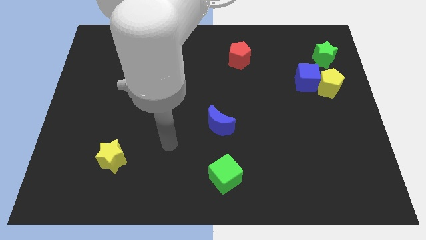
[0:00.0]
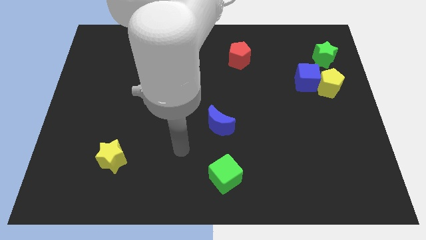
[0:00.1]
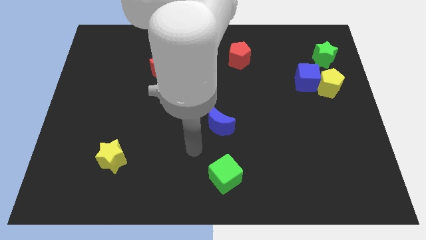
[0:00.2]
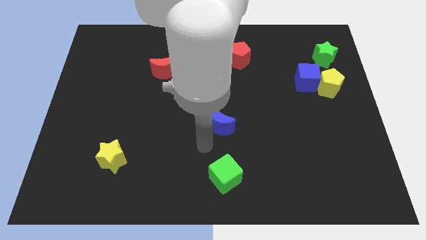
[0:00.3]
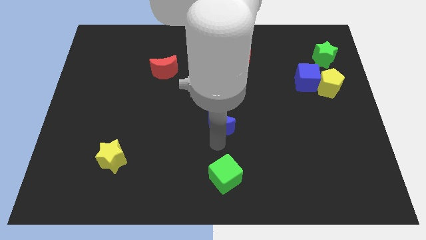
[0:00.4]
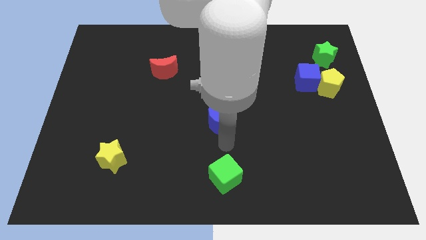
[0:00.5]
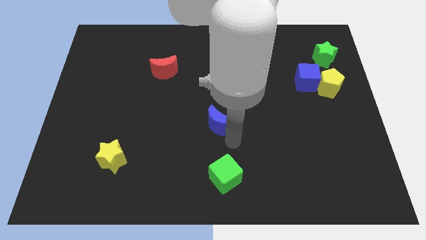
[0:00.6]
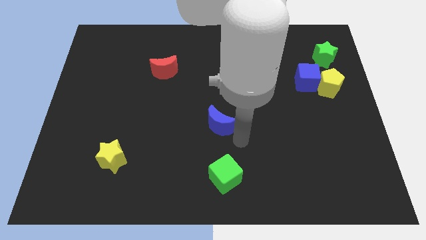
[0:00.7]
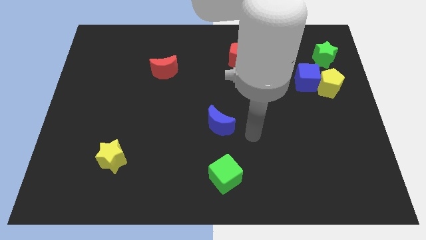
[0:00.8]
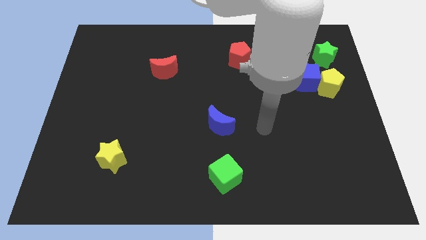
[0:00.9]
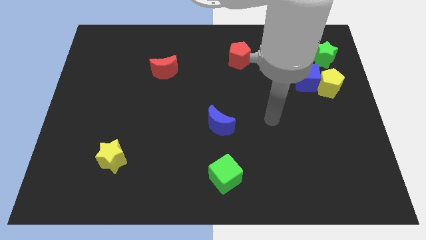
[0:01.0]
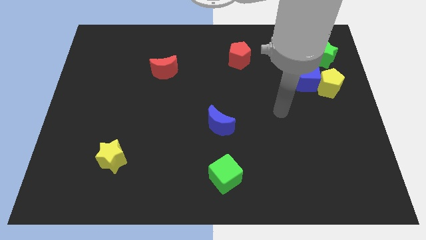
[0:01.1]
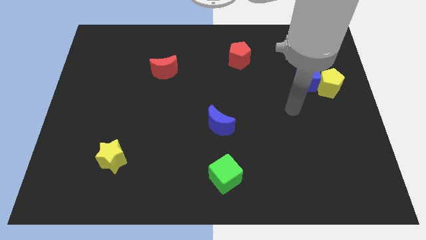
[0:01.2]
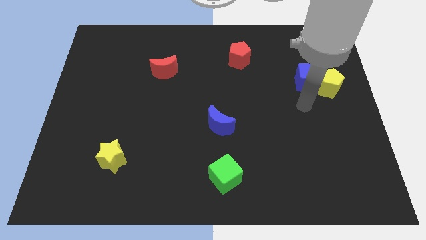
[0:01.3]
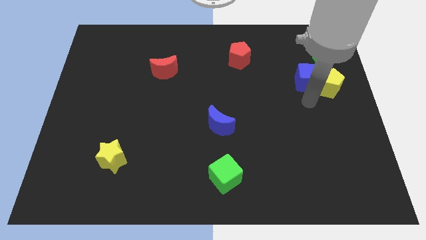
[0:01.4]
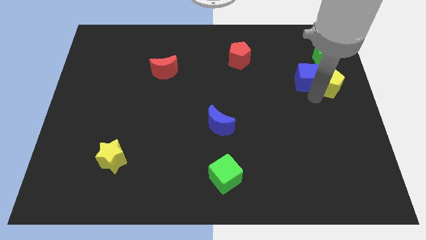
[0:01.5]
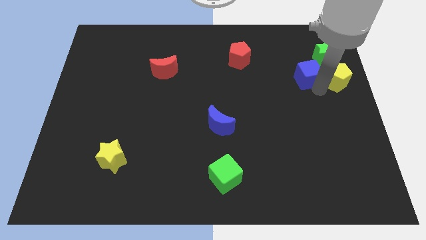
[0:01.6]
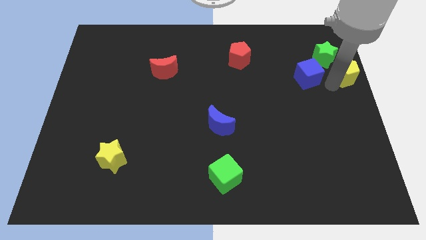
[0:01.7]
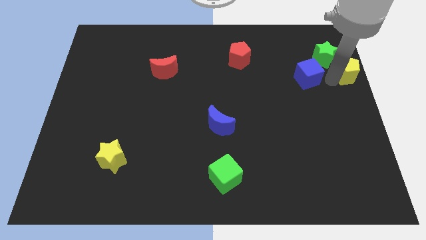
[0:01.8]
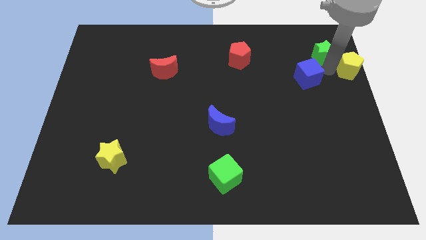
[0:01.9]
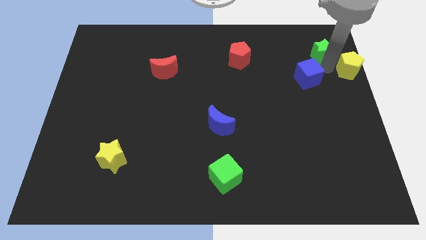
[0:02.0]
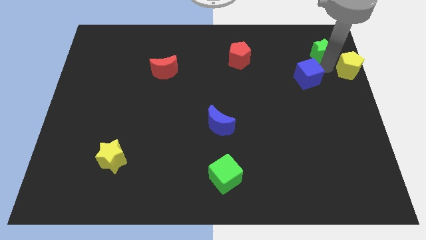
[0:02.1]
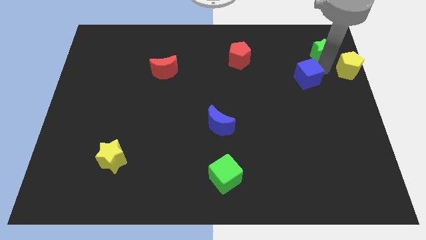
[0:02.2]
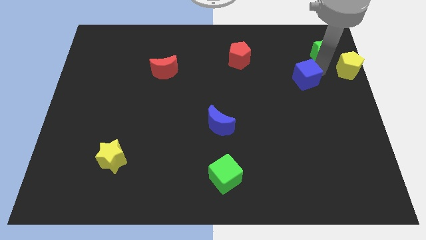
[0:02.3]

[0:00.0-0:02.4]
pull the blue cube apart from the yellow pentagon and green star

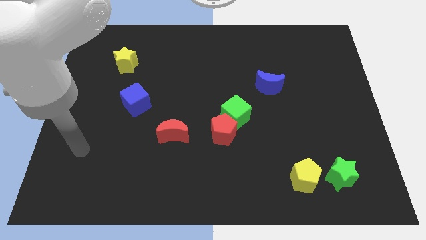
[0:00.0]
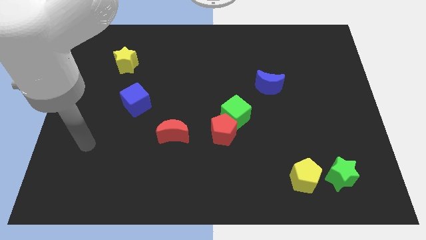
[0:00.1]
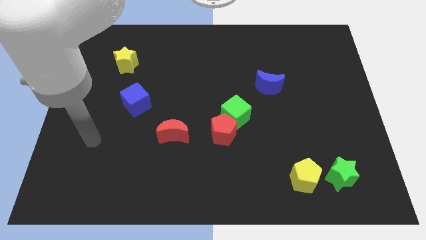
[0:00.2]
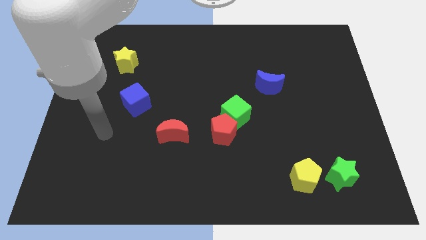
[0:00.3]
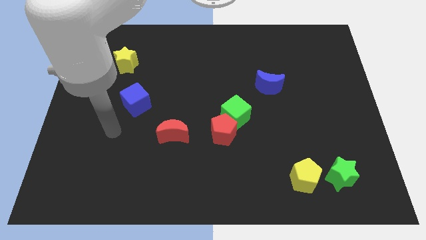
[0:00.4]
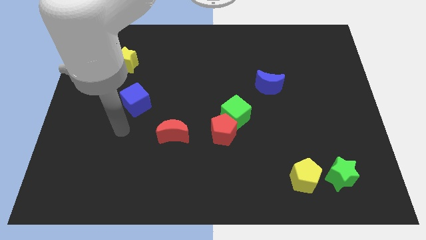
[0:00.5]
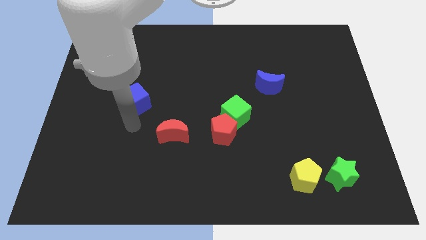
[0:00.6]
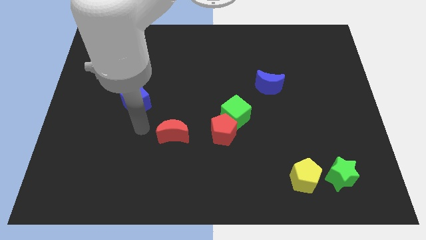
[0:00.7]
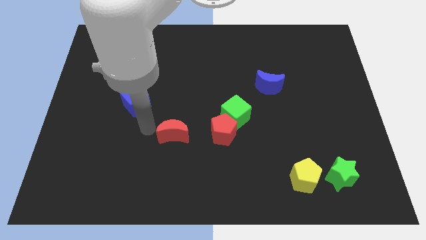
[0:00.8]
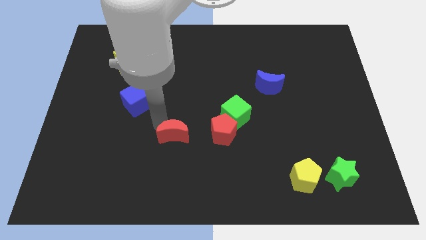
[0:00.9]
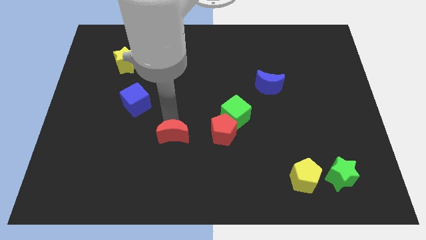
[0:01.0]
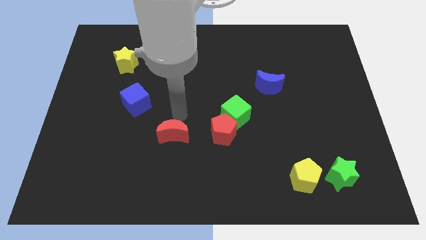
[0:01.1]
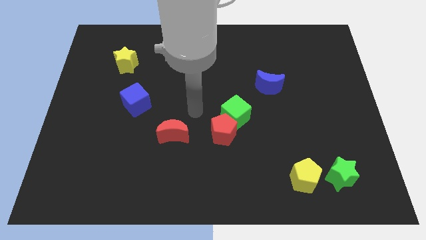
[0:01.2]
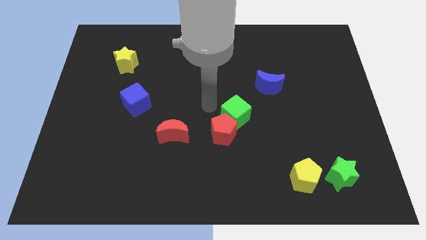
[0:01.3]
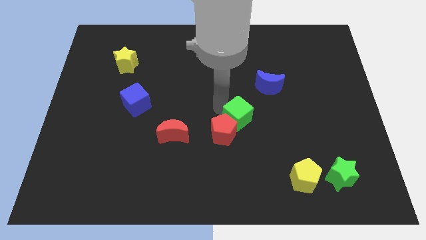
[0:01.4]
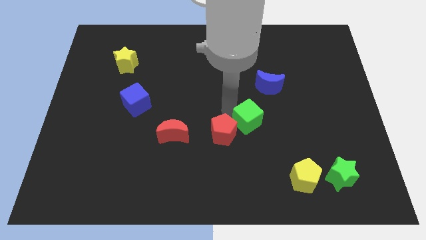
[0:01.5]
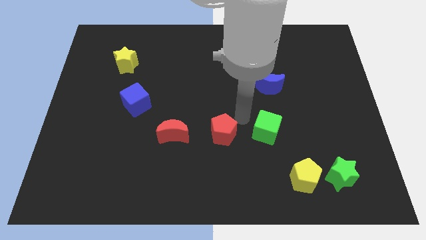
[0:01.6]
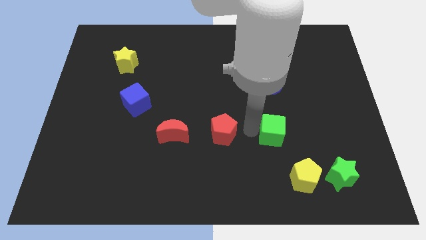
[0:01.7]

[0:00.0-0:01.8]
pull the red pentagon apart from the green cube

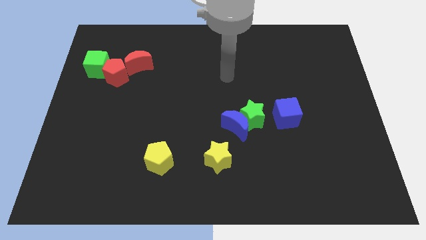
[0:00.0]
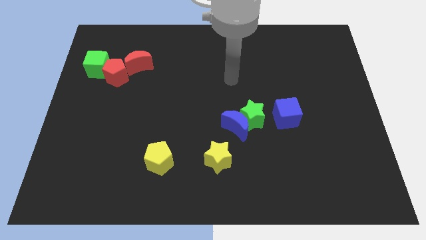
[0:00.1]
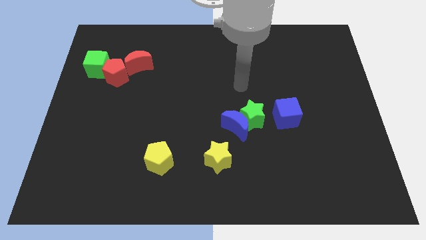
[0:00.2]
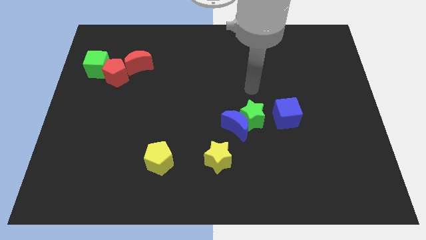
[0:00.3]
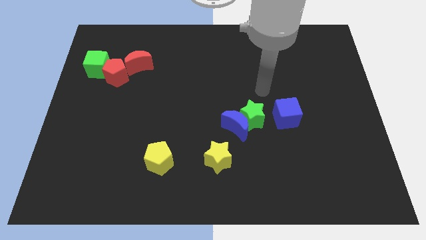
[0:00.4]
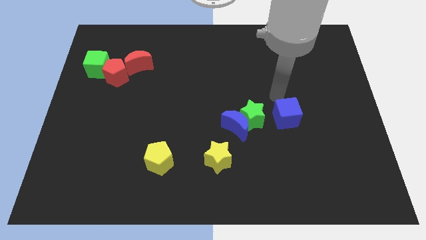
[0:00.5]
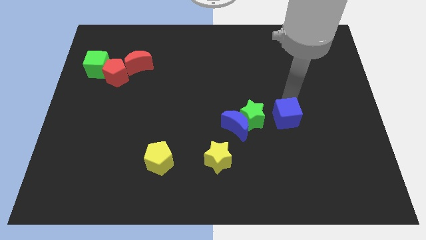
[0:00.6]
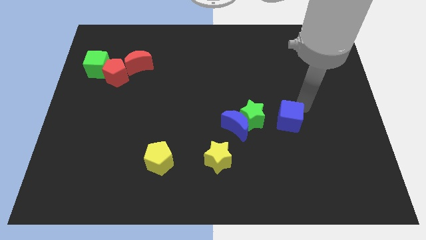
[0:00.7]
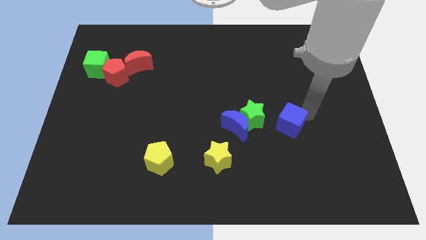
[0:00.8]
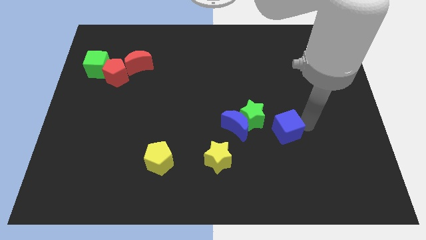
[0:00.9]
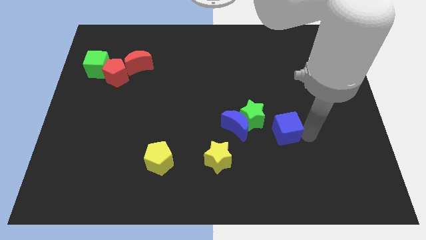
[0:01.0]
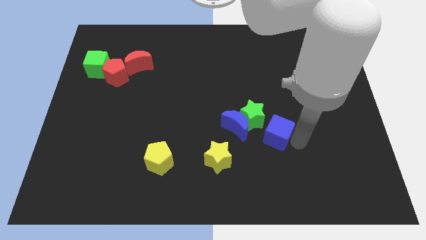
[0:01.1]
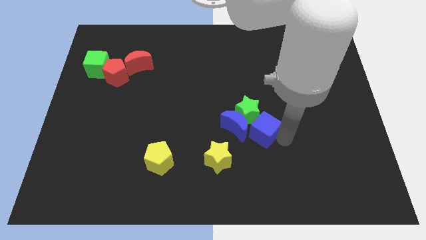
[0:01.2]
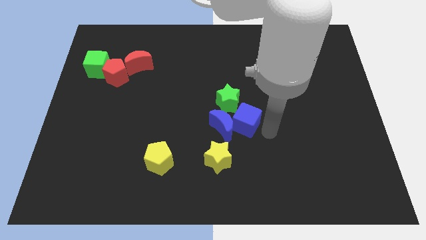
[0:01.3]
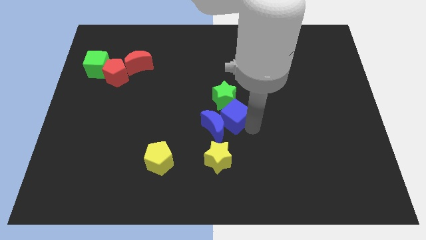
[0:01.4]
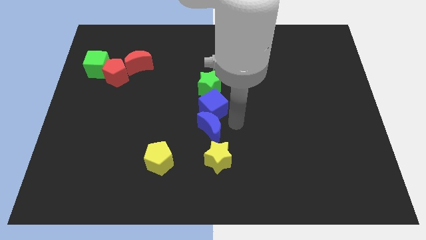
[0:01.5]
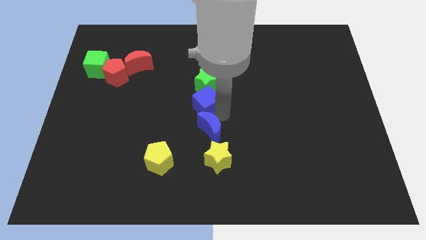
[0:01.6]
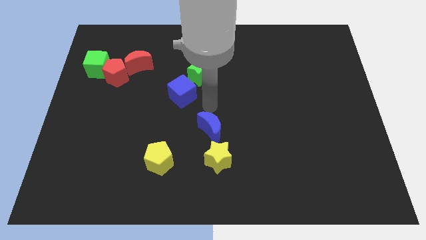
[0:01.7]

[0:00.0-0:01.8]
pull the green star apart from the blue moon and blue cube

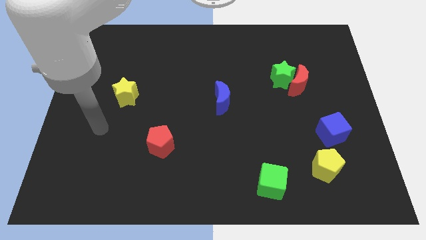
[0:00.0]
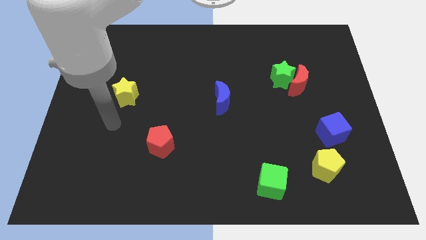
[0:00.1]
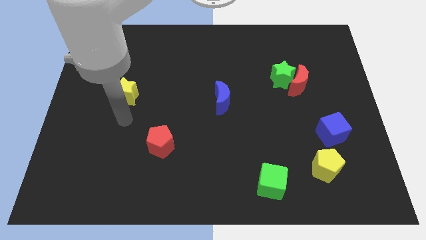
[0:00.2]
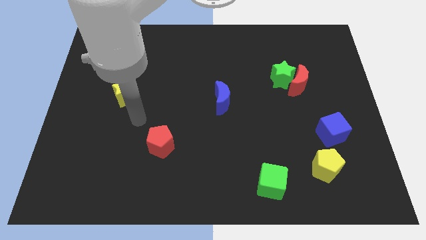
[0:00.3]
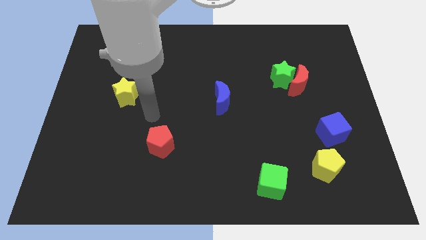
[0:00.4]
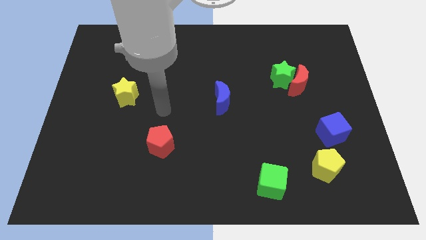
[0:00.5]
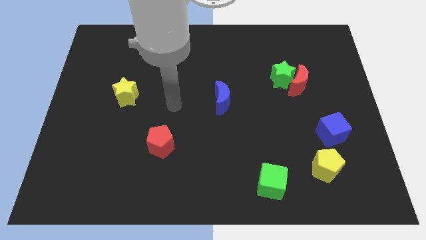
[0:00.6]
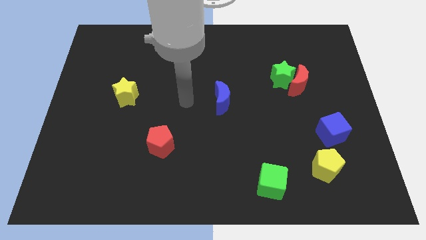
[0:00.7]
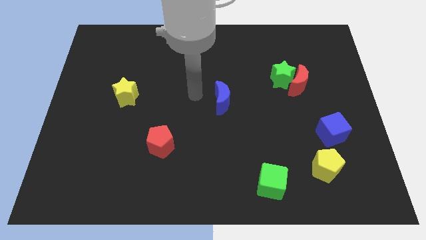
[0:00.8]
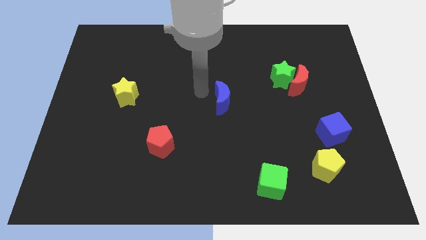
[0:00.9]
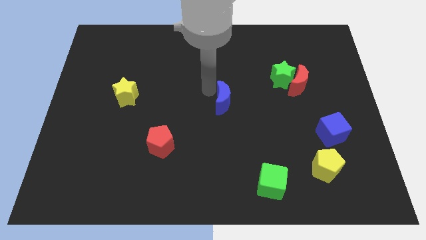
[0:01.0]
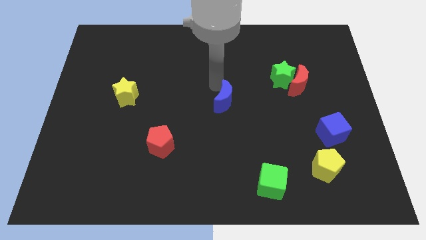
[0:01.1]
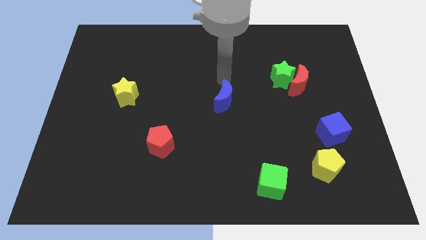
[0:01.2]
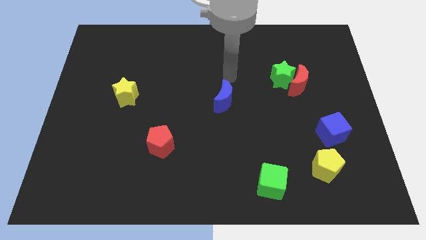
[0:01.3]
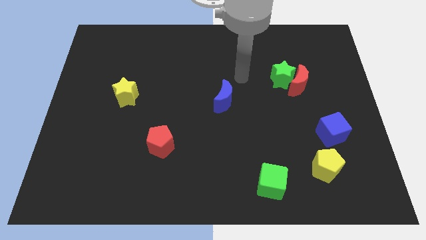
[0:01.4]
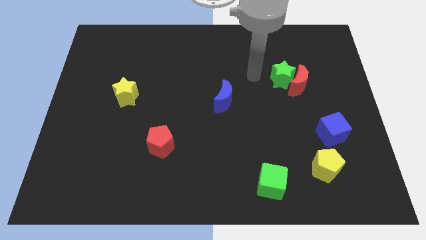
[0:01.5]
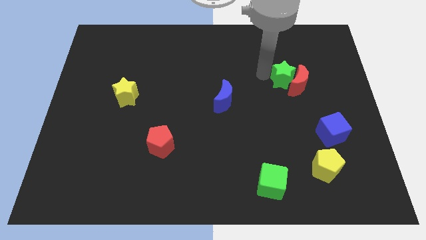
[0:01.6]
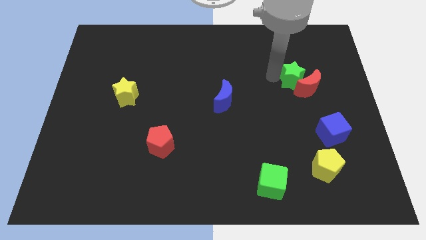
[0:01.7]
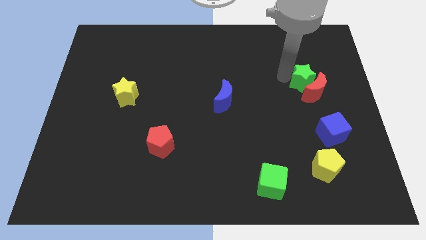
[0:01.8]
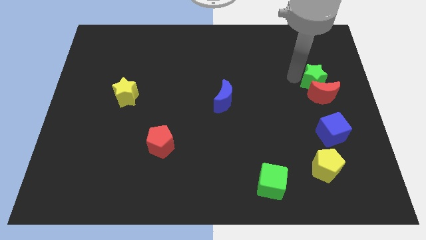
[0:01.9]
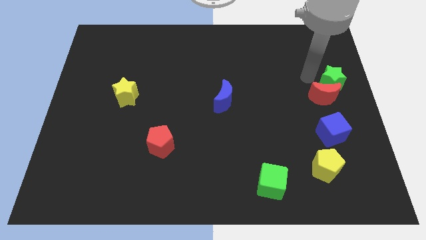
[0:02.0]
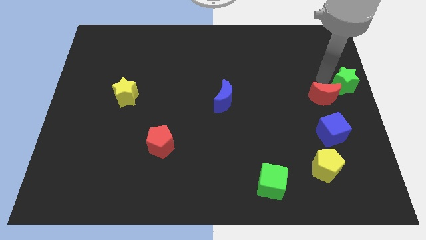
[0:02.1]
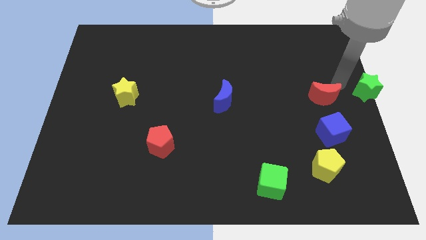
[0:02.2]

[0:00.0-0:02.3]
pull the red moon apart from the green star

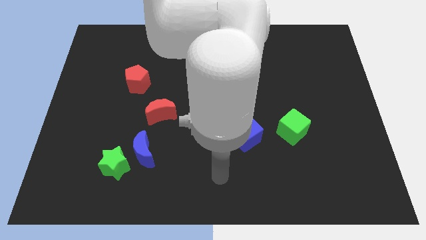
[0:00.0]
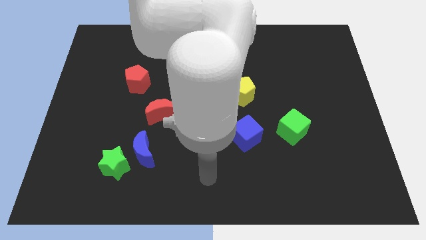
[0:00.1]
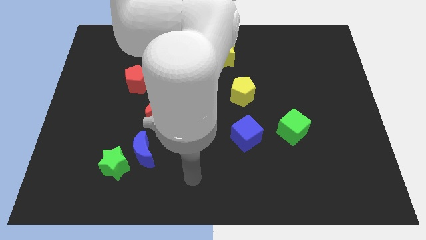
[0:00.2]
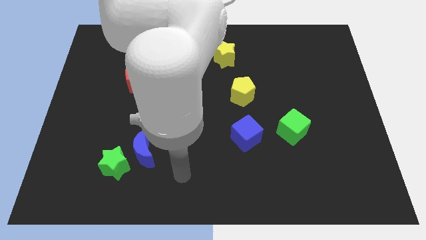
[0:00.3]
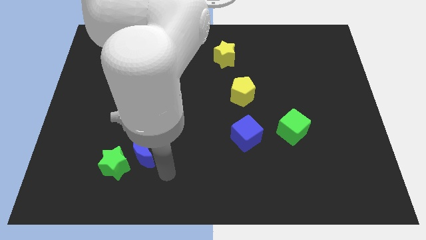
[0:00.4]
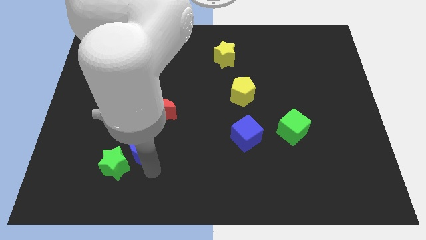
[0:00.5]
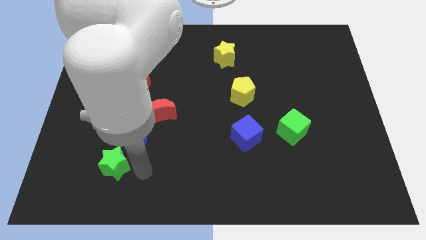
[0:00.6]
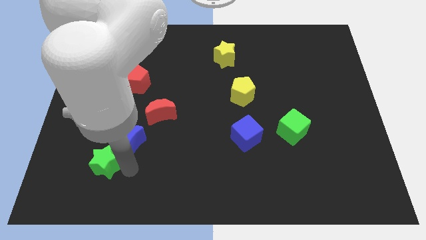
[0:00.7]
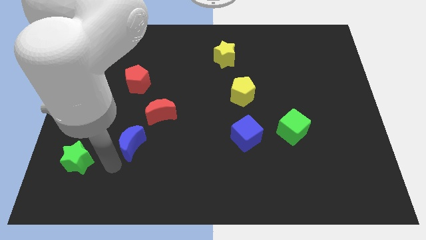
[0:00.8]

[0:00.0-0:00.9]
move the blue moon away from the green star
